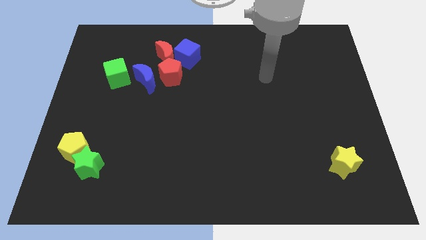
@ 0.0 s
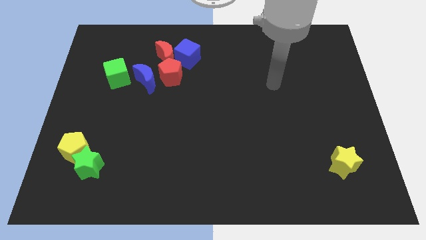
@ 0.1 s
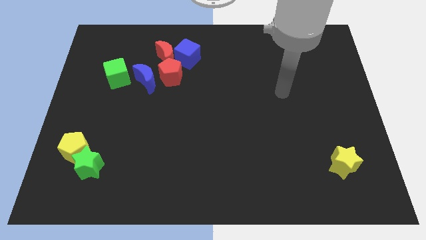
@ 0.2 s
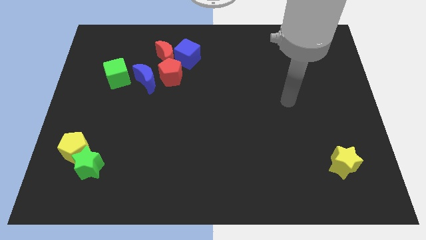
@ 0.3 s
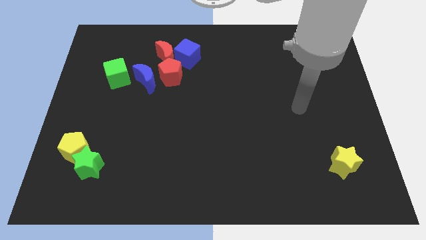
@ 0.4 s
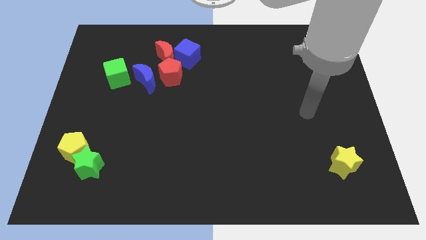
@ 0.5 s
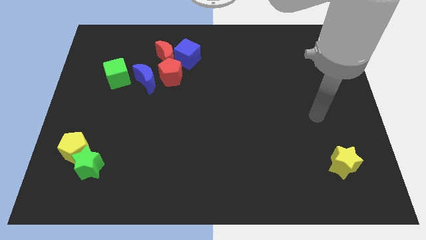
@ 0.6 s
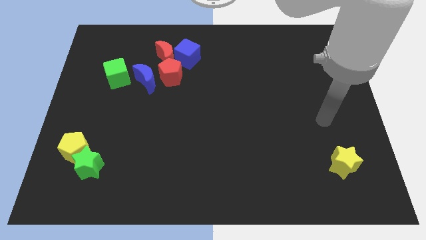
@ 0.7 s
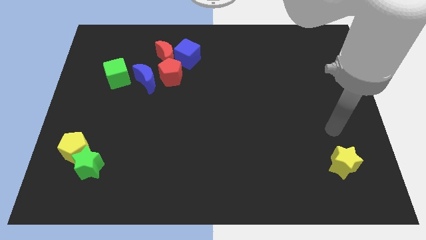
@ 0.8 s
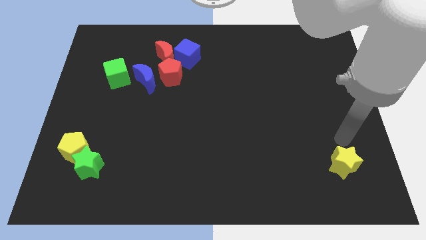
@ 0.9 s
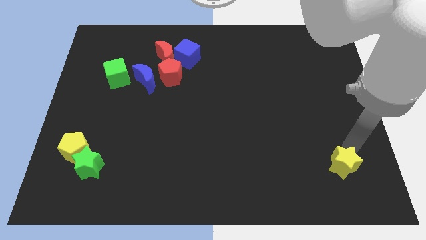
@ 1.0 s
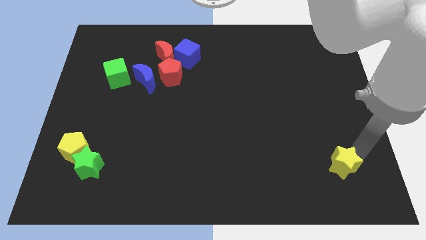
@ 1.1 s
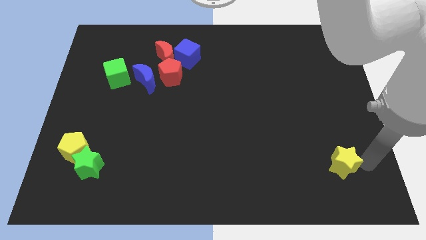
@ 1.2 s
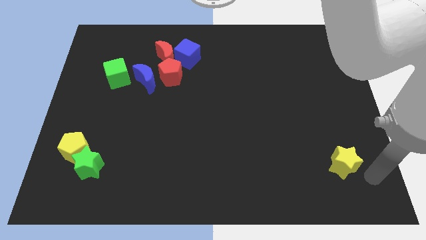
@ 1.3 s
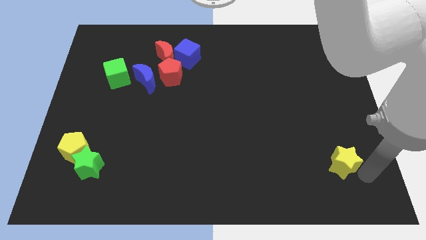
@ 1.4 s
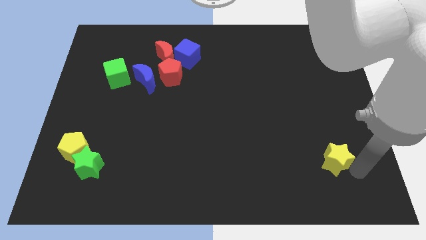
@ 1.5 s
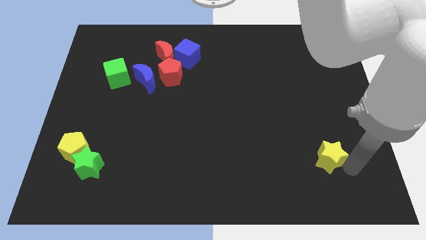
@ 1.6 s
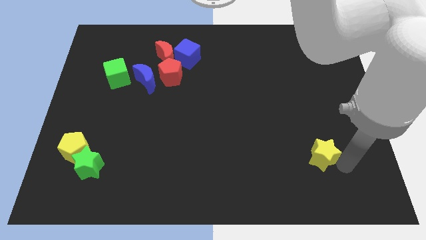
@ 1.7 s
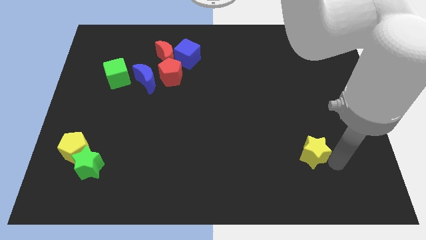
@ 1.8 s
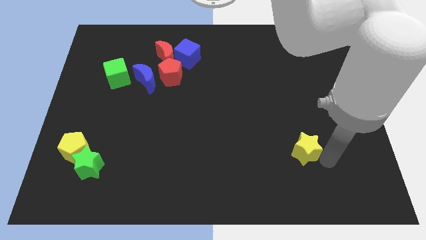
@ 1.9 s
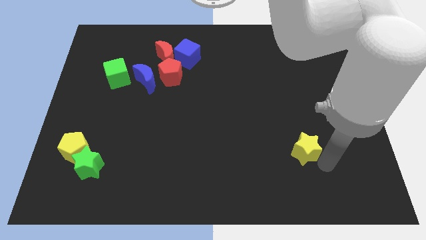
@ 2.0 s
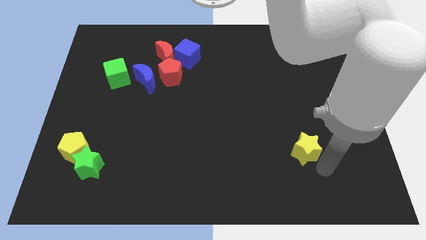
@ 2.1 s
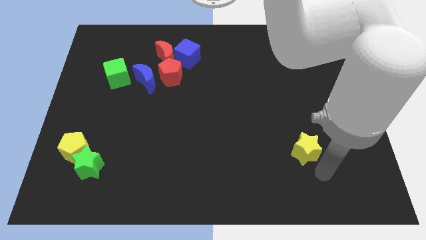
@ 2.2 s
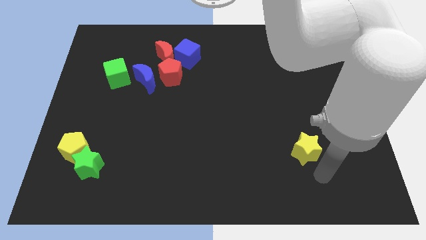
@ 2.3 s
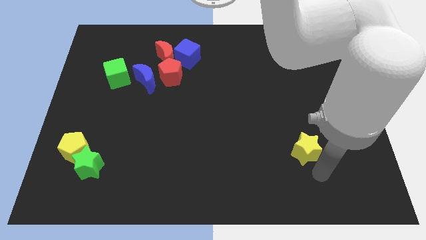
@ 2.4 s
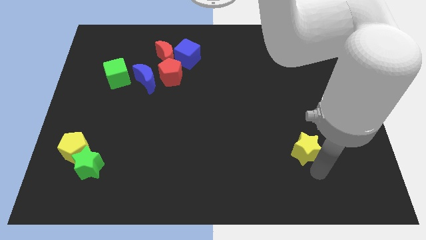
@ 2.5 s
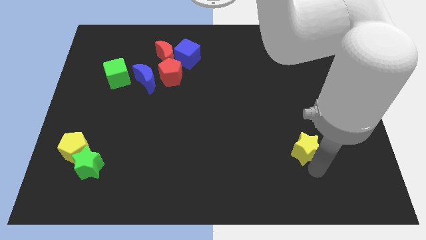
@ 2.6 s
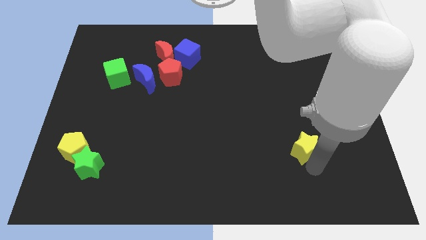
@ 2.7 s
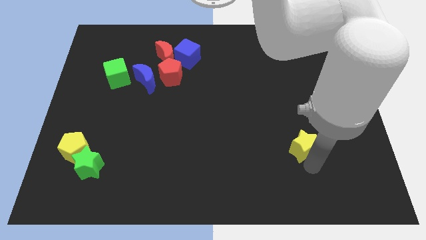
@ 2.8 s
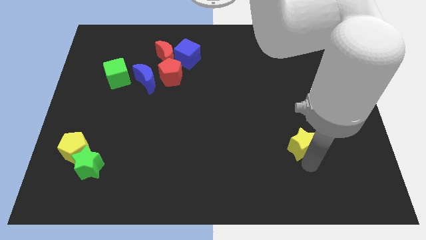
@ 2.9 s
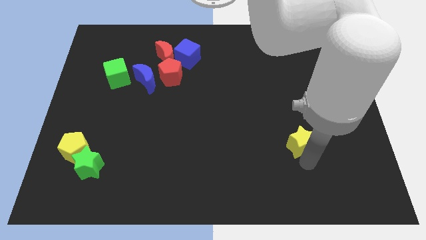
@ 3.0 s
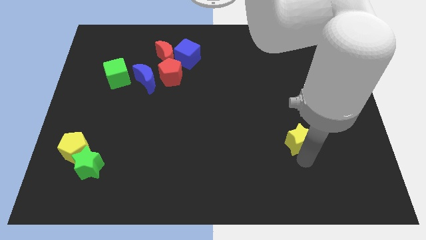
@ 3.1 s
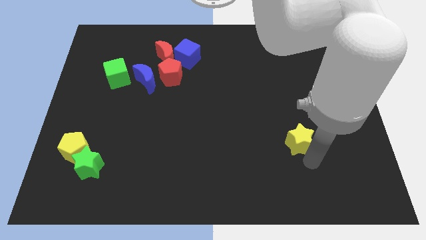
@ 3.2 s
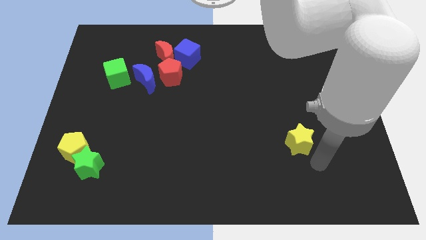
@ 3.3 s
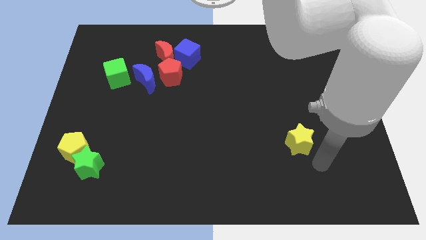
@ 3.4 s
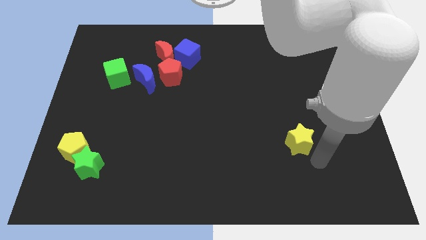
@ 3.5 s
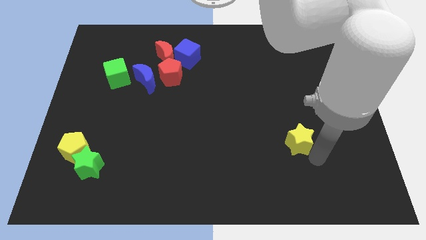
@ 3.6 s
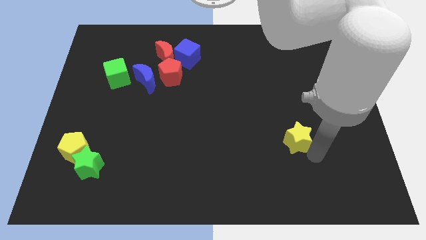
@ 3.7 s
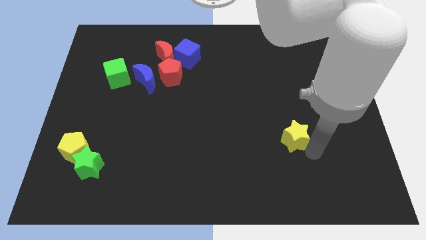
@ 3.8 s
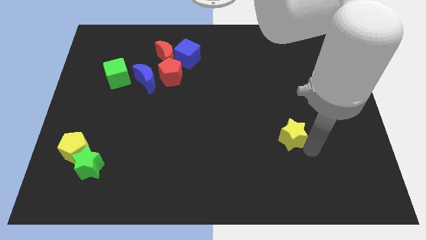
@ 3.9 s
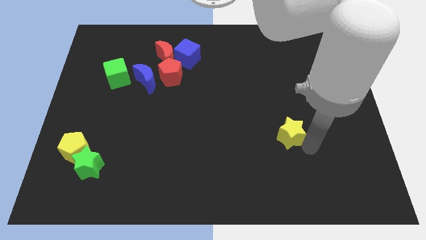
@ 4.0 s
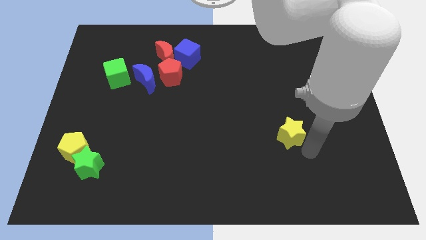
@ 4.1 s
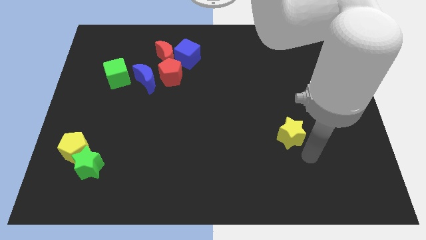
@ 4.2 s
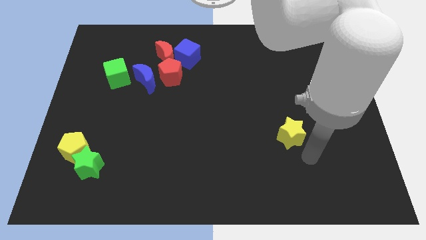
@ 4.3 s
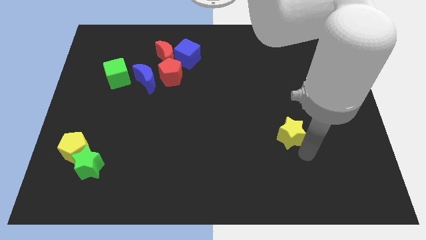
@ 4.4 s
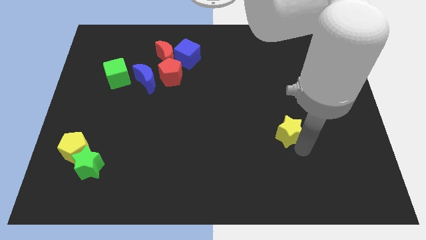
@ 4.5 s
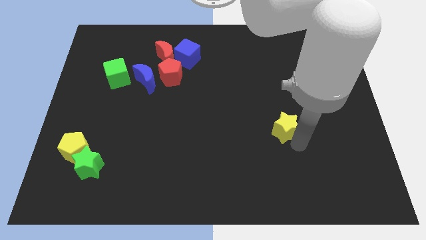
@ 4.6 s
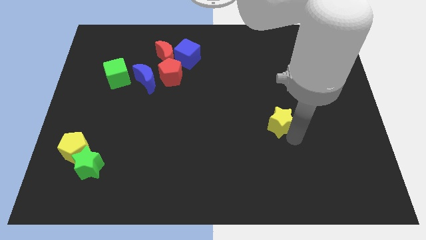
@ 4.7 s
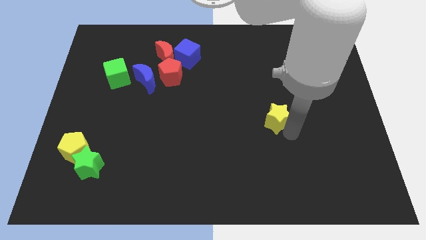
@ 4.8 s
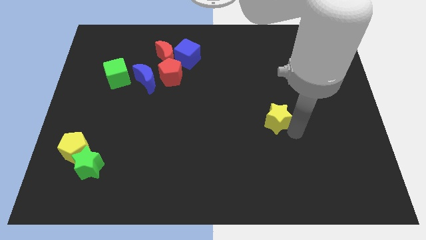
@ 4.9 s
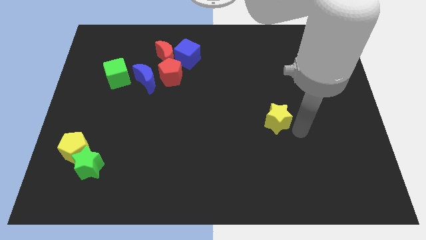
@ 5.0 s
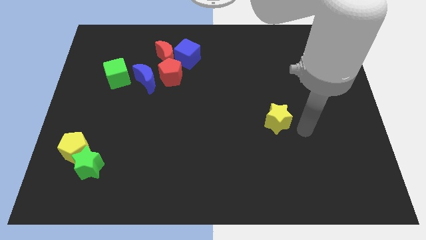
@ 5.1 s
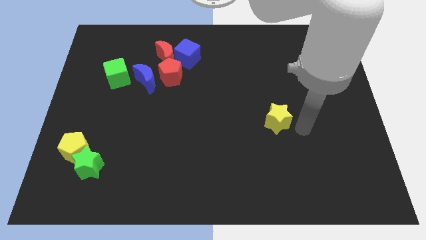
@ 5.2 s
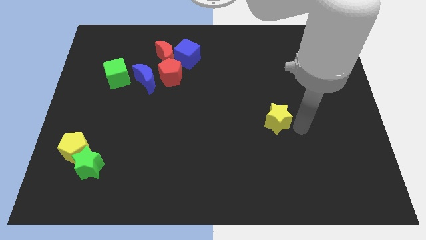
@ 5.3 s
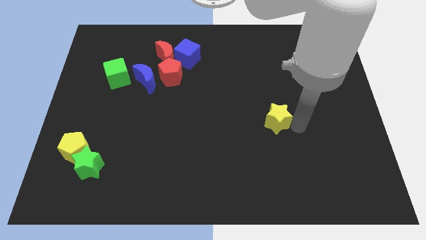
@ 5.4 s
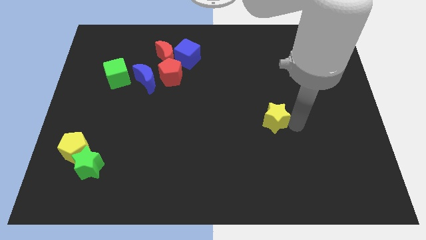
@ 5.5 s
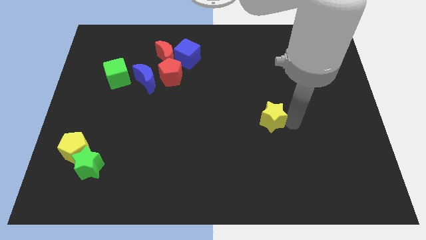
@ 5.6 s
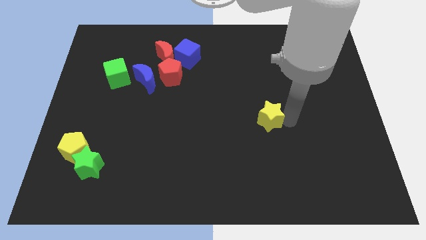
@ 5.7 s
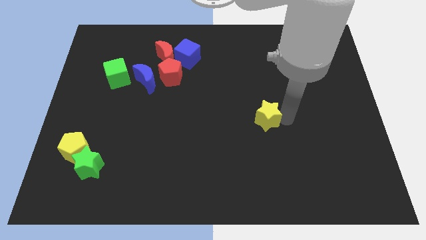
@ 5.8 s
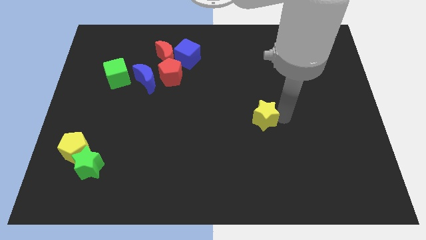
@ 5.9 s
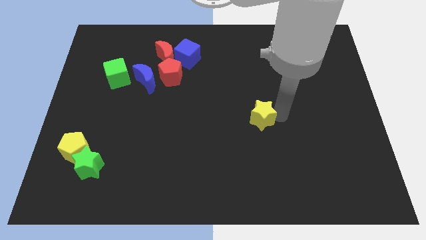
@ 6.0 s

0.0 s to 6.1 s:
push the yellow star to the middle of the board
